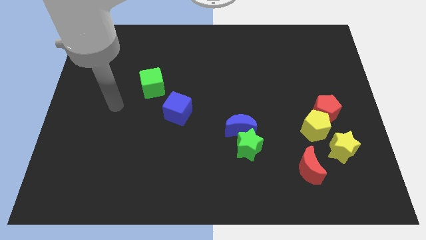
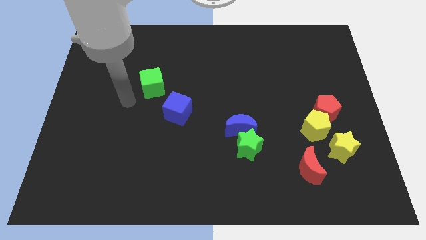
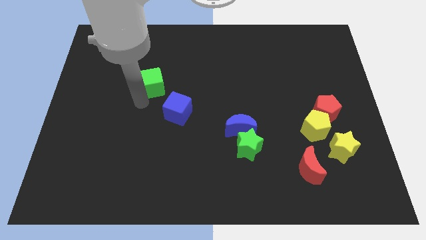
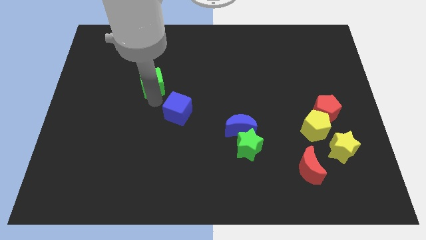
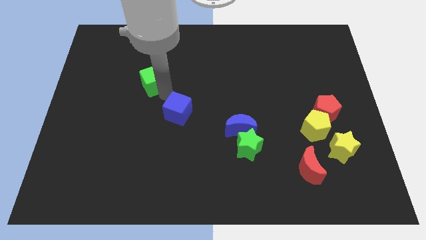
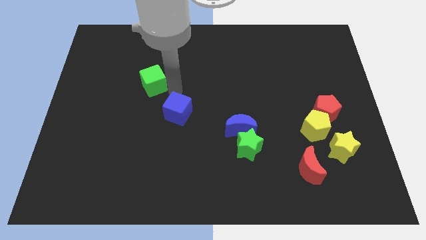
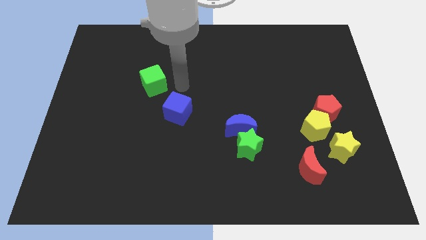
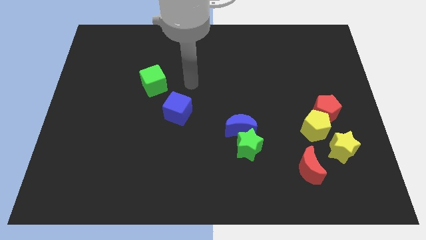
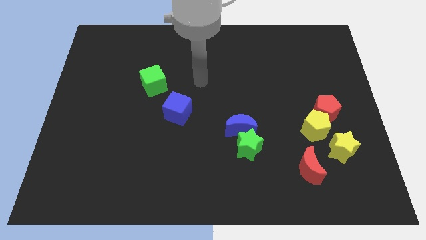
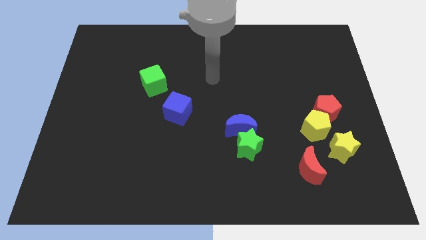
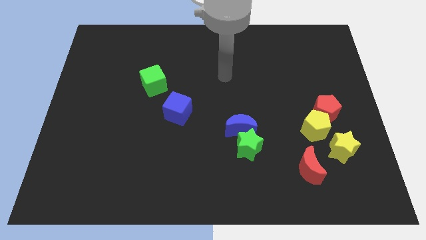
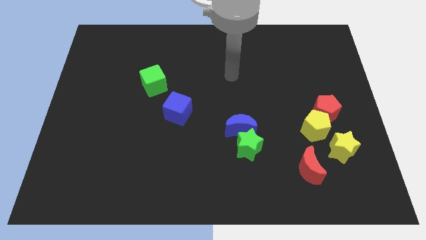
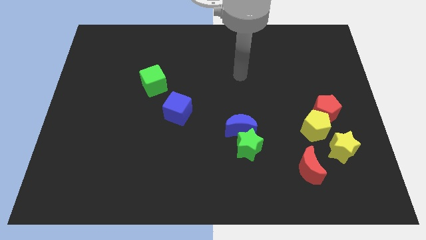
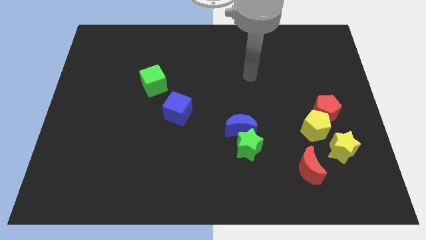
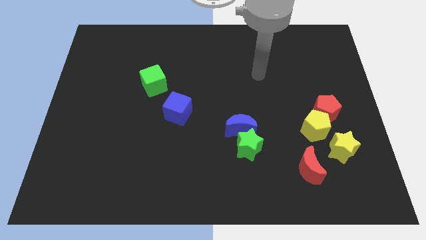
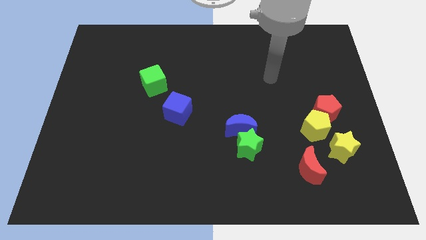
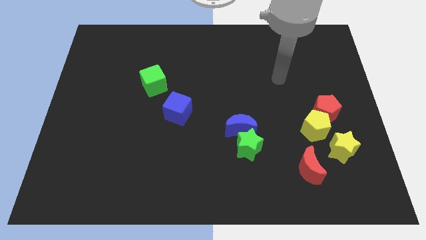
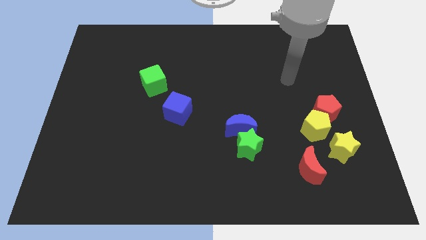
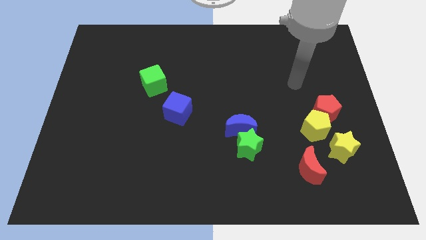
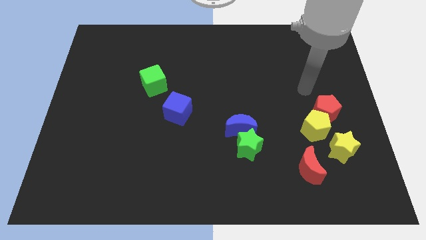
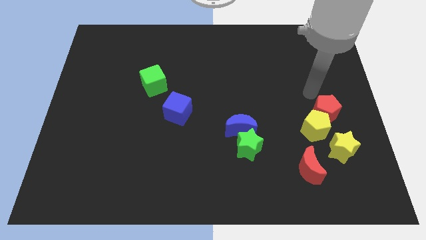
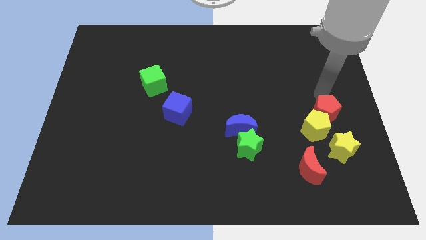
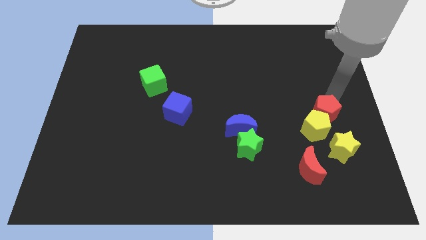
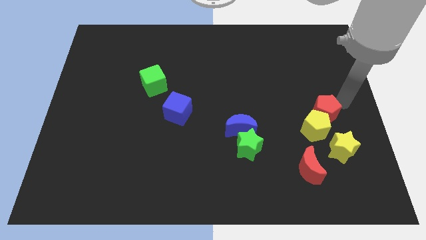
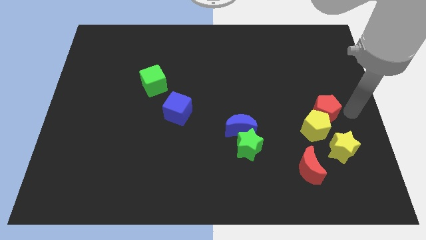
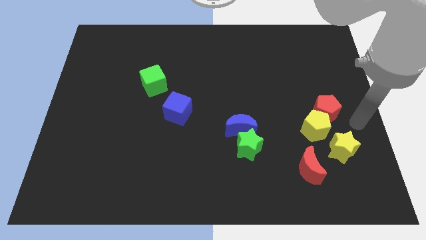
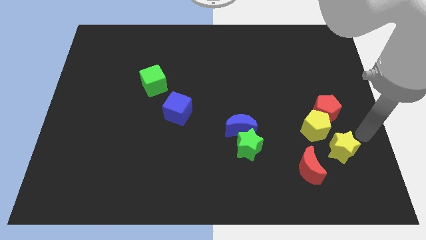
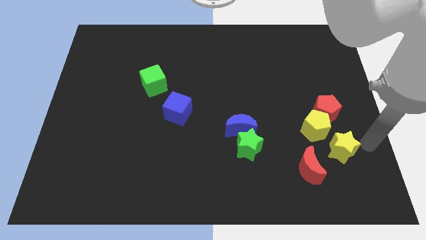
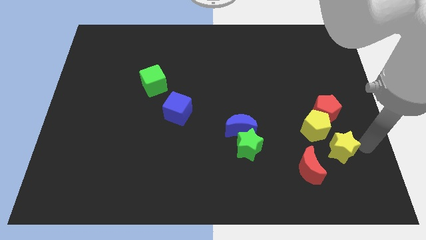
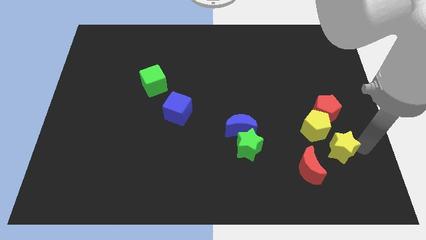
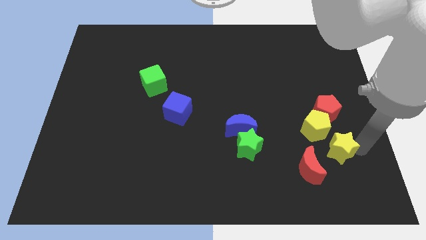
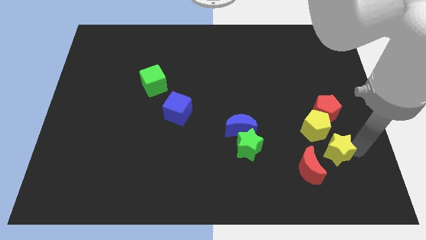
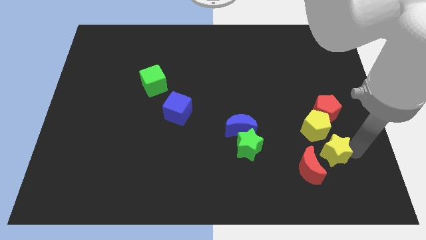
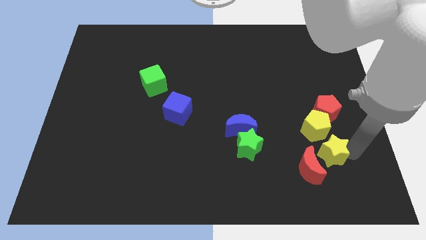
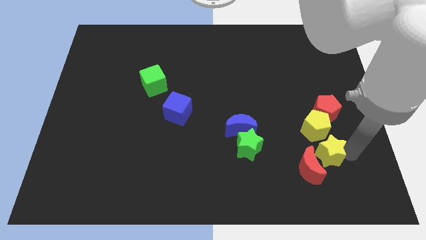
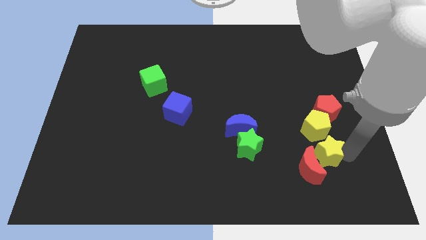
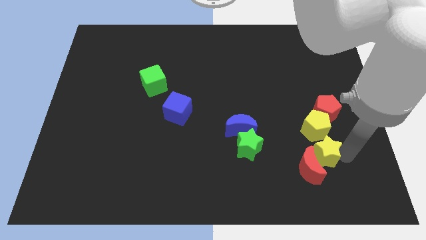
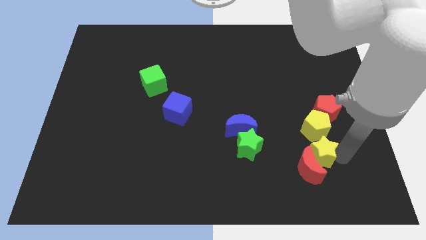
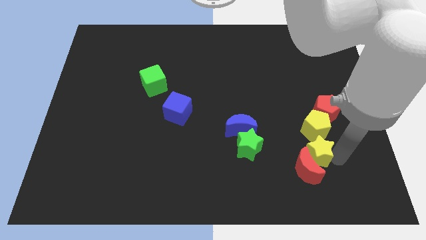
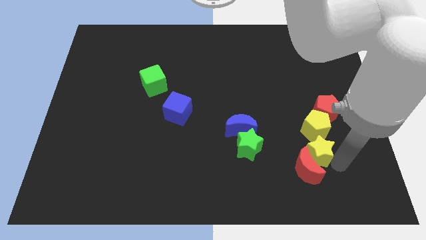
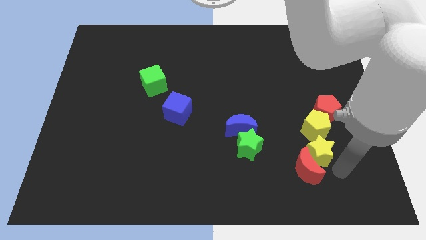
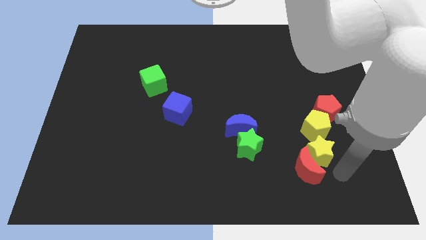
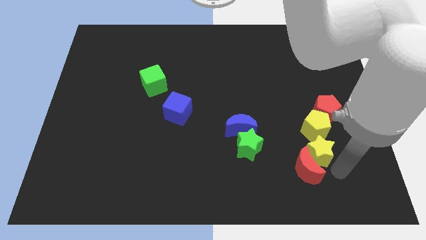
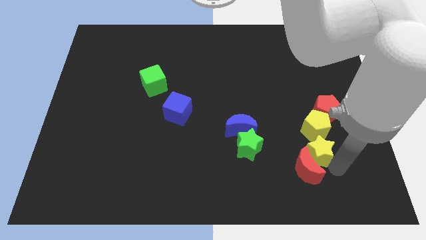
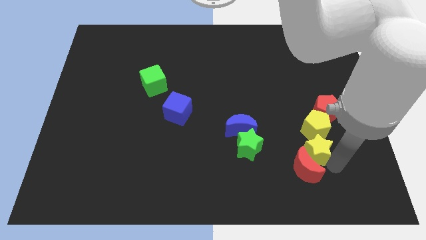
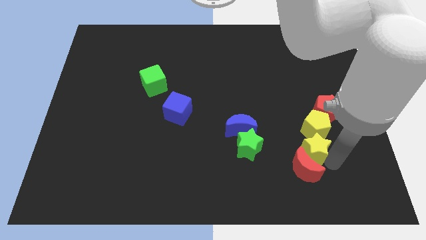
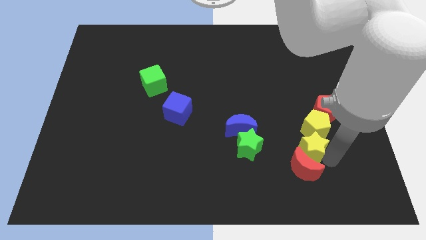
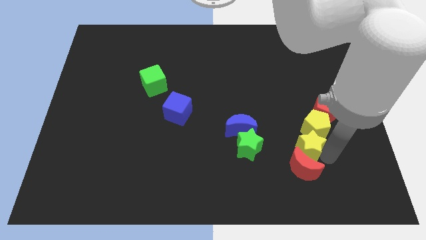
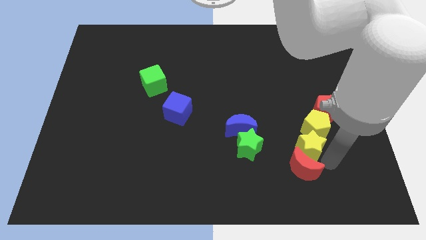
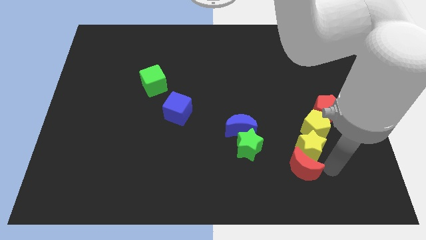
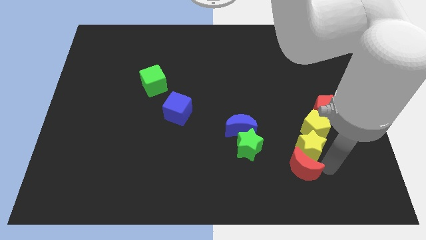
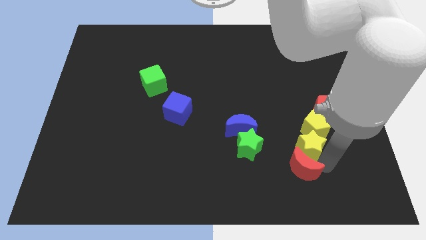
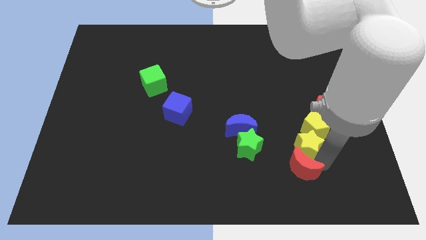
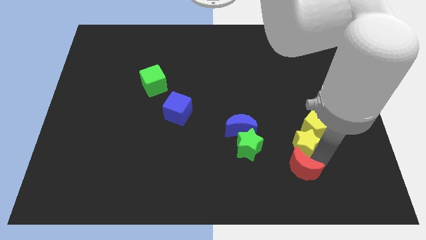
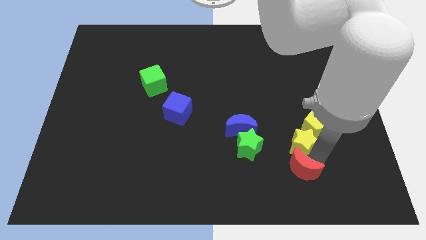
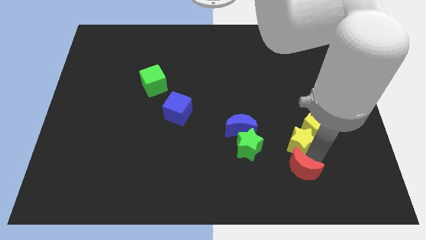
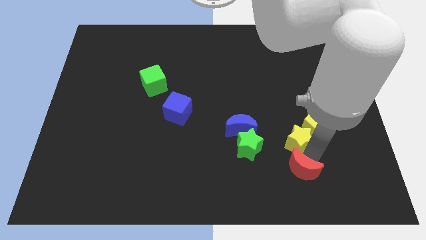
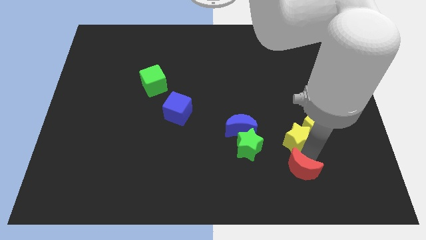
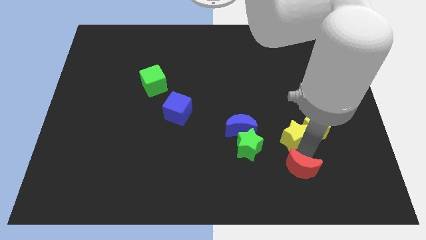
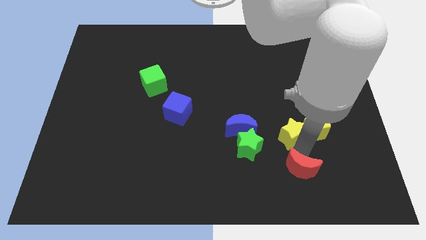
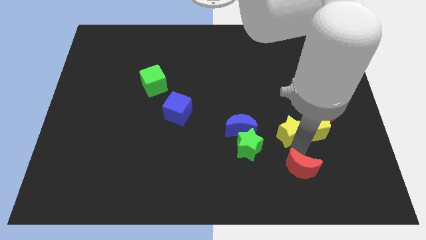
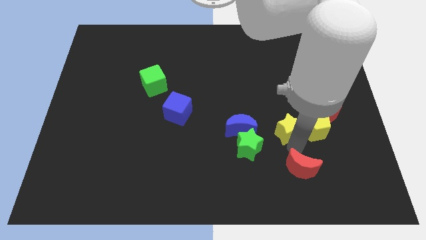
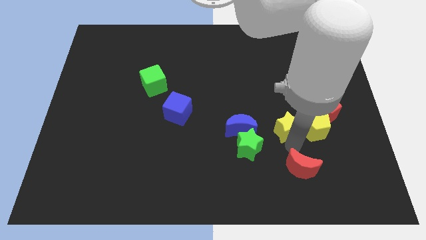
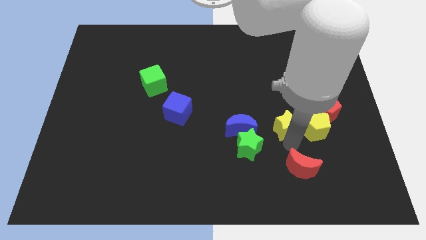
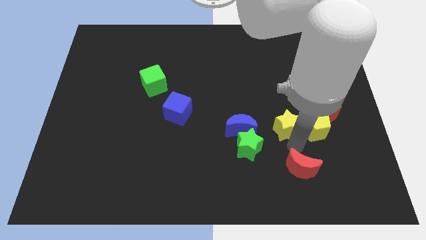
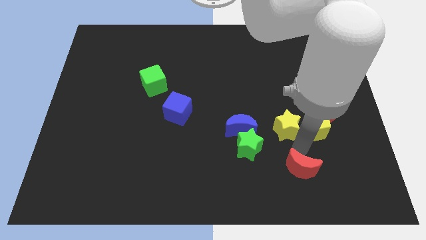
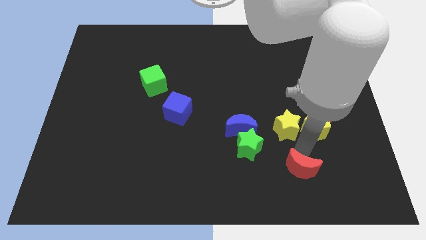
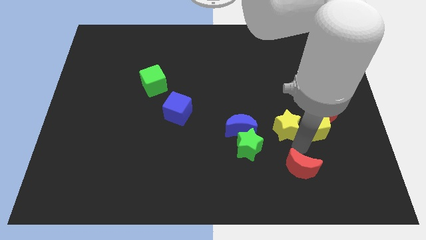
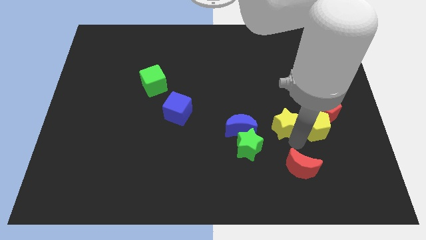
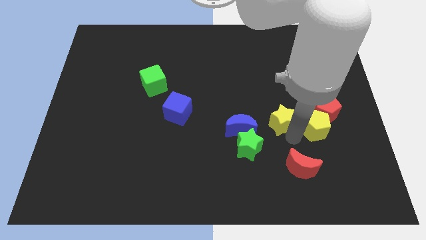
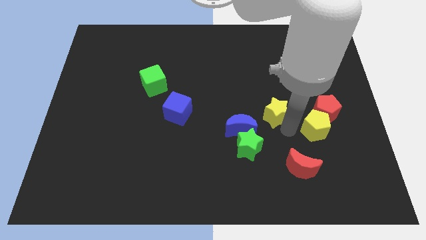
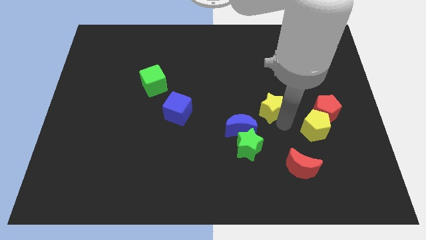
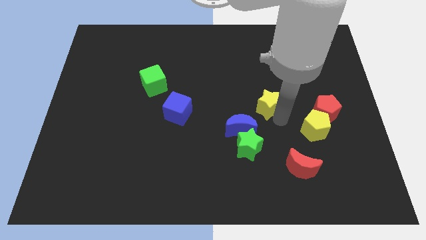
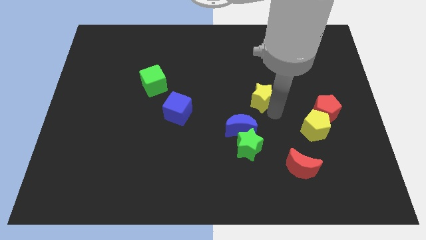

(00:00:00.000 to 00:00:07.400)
move the yellow star upwards and then left
